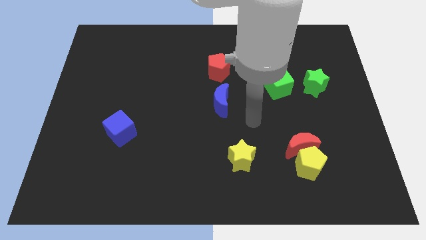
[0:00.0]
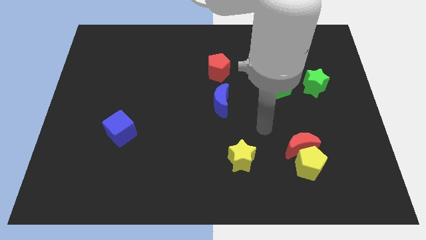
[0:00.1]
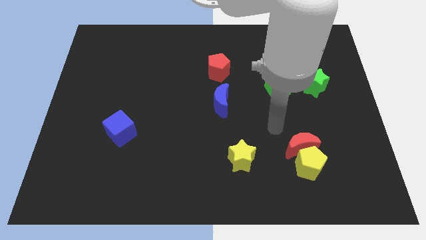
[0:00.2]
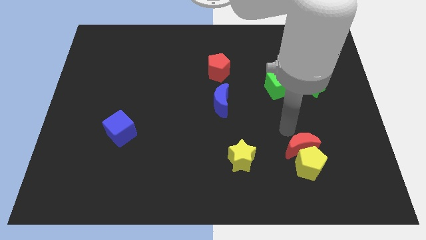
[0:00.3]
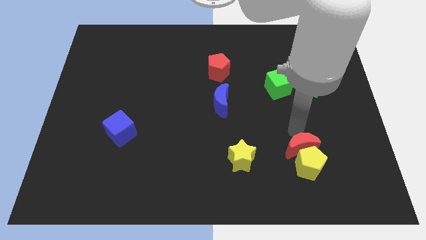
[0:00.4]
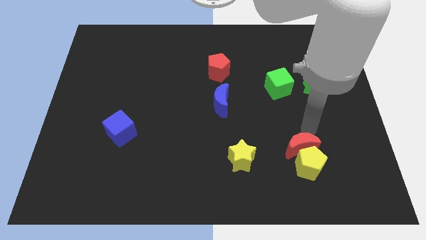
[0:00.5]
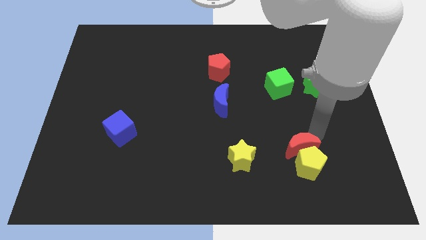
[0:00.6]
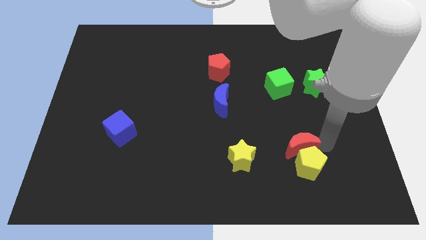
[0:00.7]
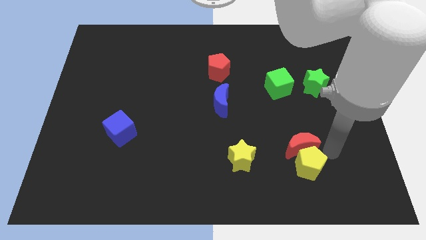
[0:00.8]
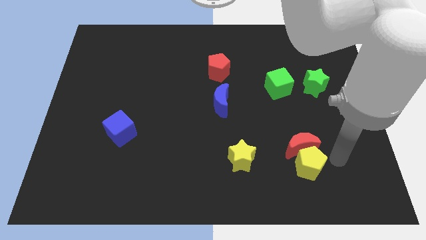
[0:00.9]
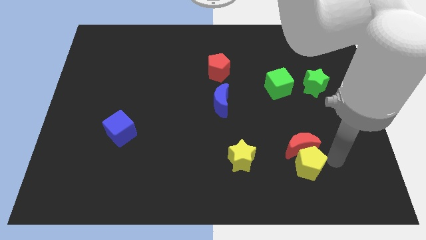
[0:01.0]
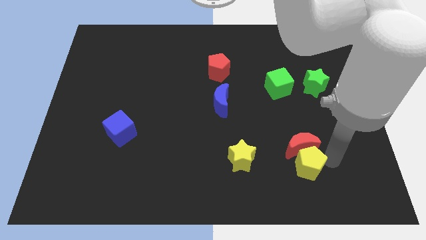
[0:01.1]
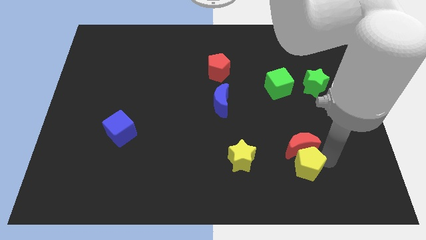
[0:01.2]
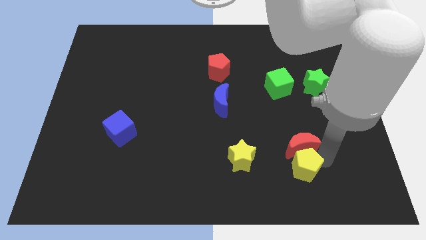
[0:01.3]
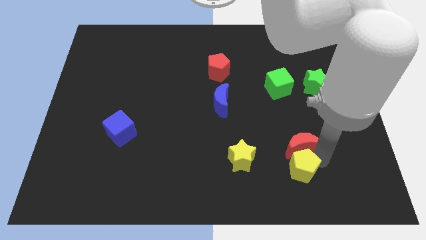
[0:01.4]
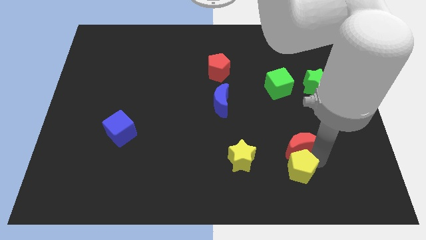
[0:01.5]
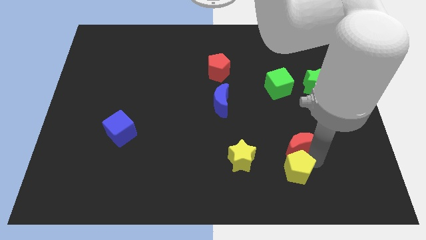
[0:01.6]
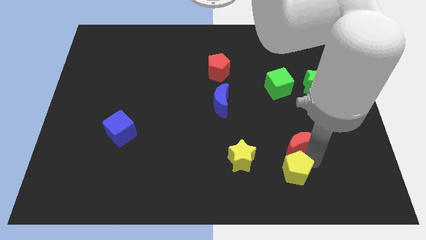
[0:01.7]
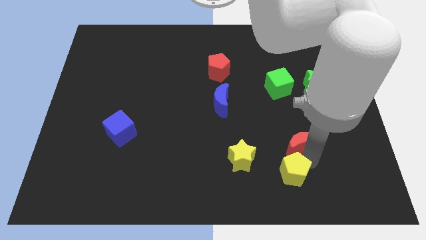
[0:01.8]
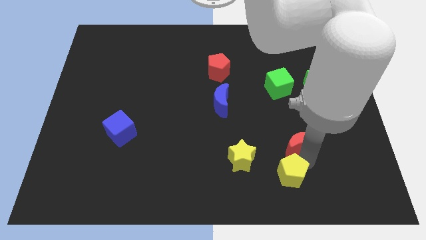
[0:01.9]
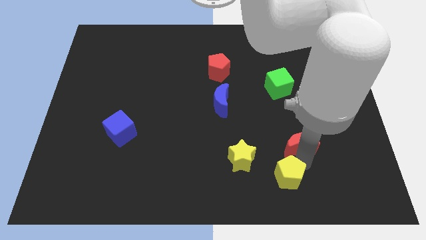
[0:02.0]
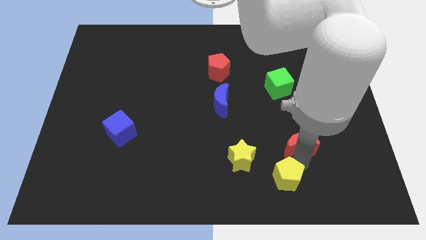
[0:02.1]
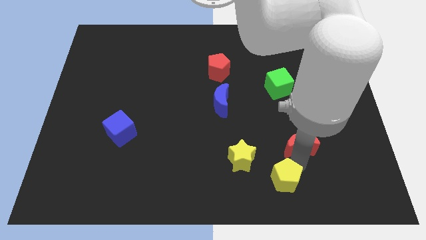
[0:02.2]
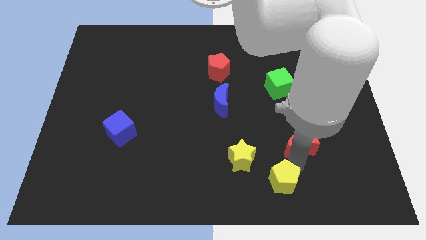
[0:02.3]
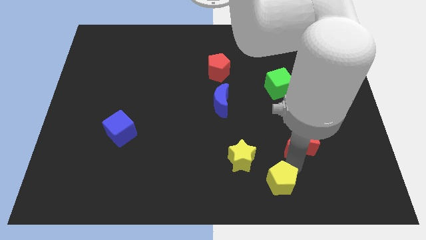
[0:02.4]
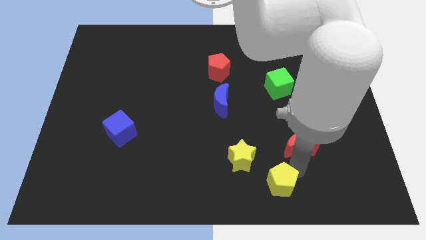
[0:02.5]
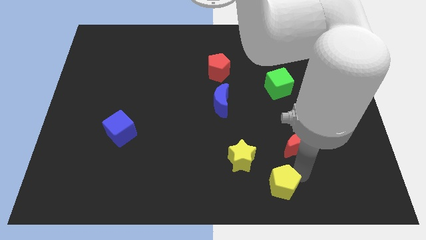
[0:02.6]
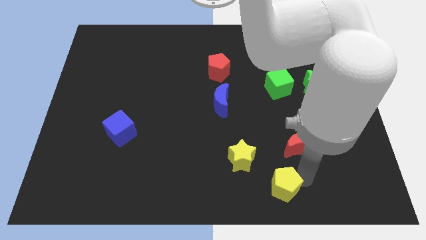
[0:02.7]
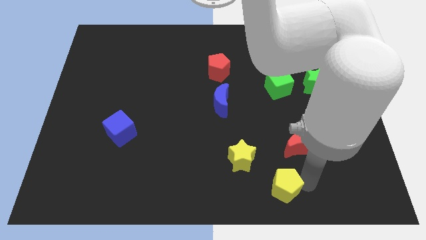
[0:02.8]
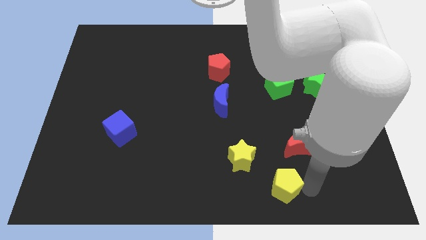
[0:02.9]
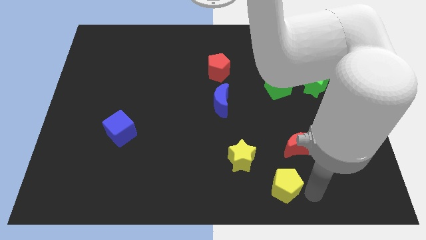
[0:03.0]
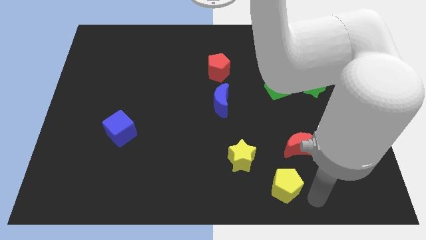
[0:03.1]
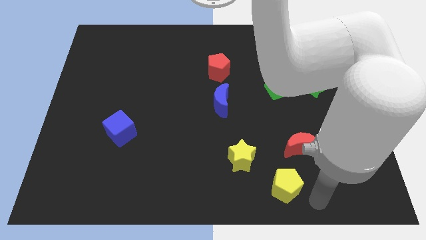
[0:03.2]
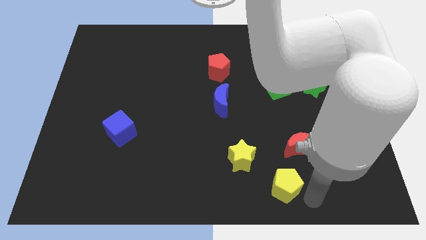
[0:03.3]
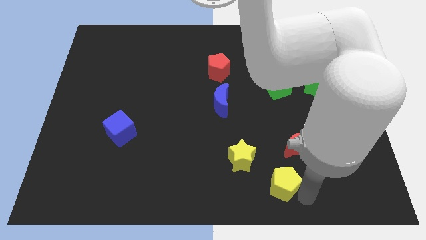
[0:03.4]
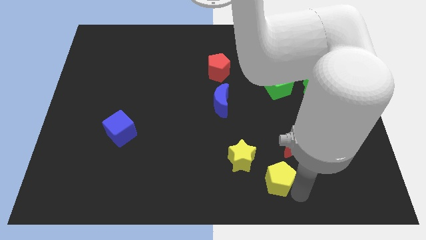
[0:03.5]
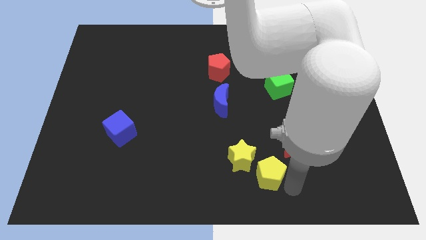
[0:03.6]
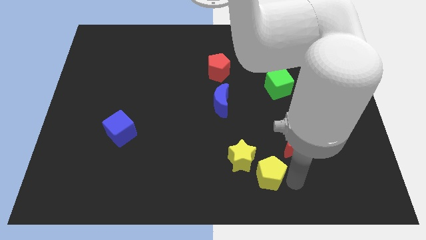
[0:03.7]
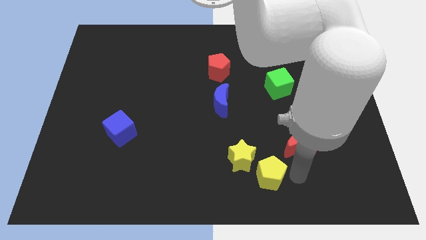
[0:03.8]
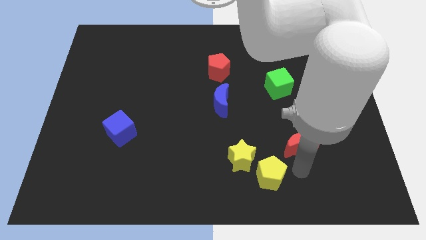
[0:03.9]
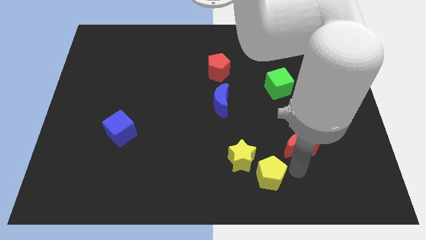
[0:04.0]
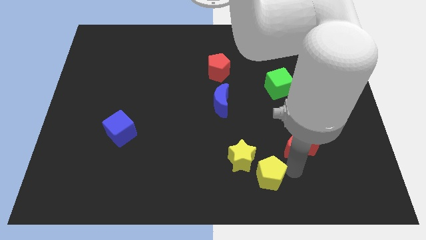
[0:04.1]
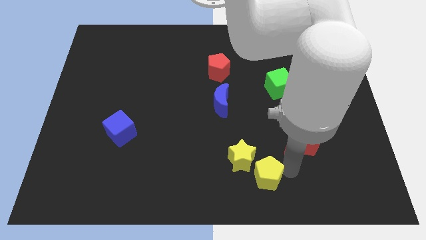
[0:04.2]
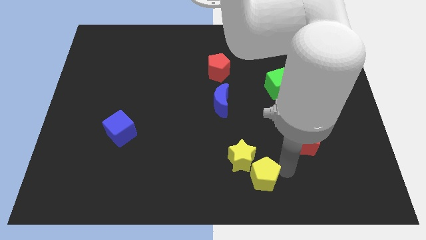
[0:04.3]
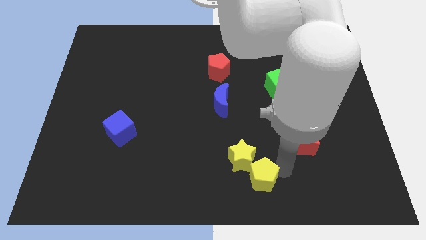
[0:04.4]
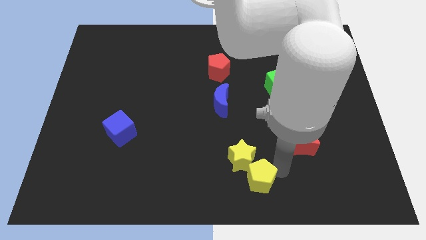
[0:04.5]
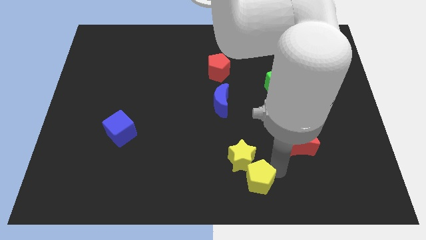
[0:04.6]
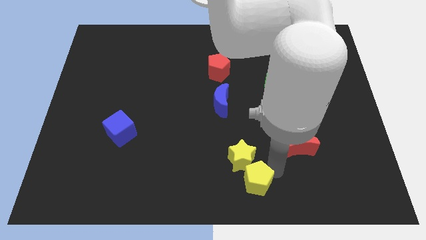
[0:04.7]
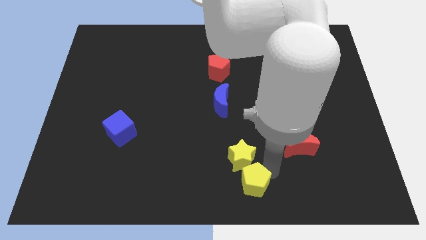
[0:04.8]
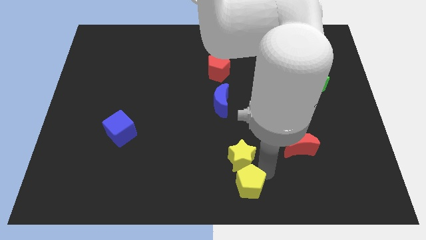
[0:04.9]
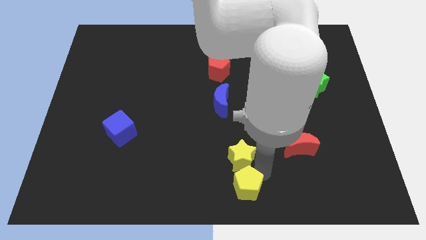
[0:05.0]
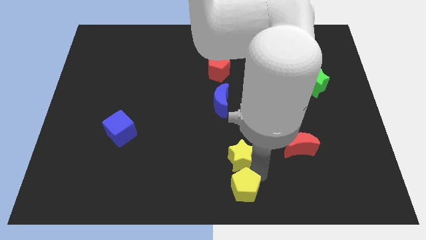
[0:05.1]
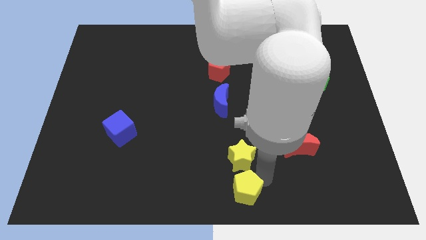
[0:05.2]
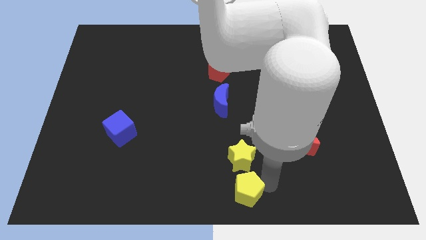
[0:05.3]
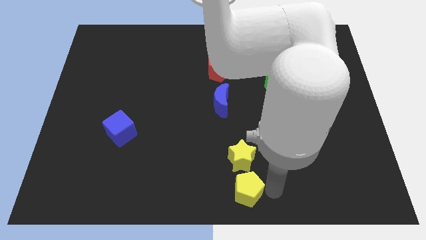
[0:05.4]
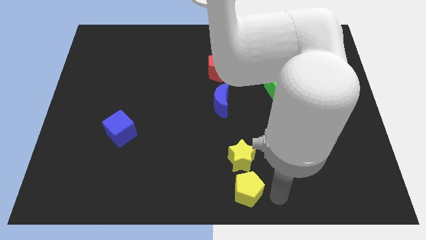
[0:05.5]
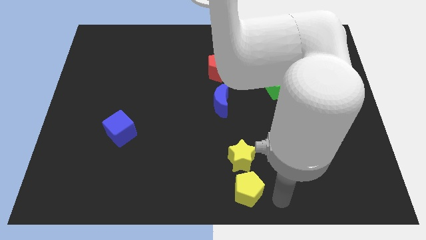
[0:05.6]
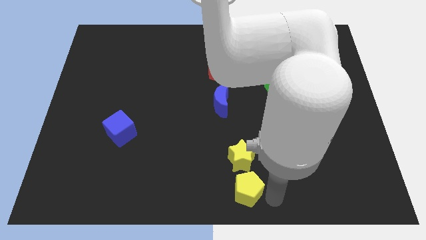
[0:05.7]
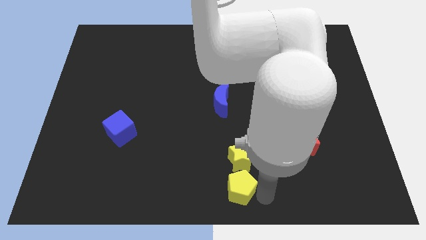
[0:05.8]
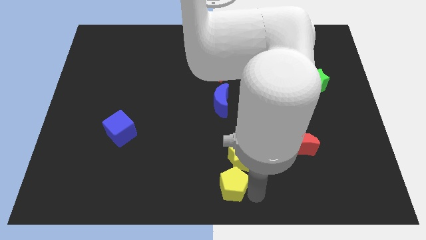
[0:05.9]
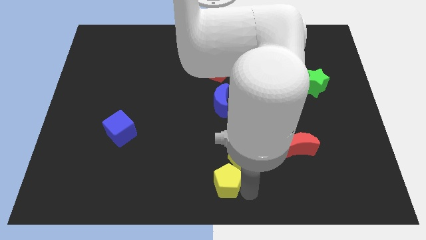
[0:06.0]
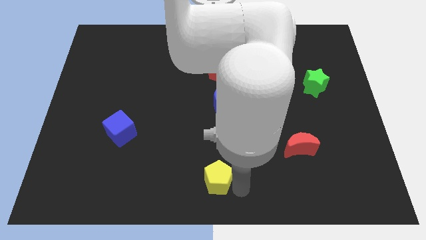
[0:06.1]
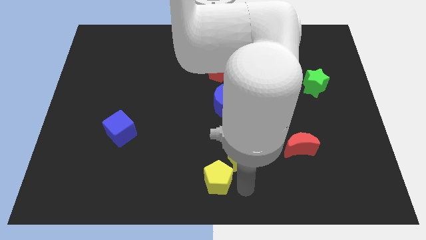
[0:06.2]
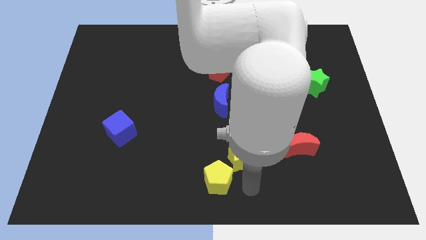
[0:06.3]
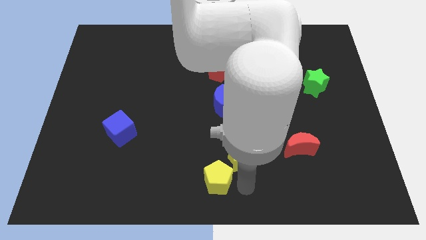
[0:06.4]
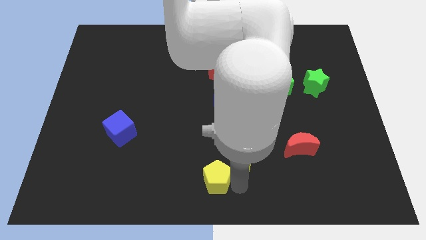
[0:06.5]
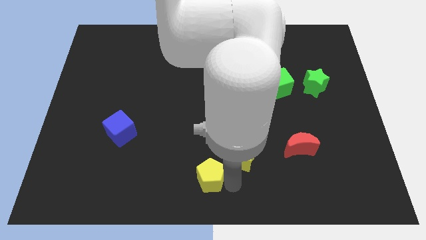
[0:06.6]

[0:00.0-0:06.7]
slide the yellow pentagon to the left

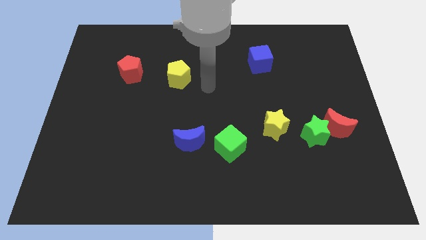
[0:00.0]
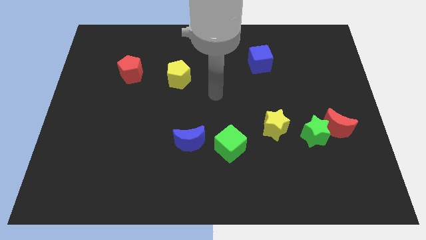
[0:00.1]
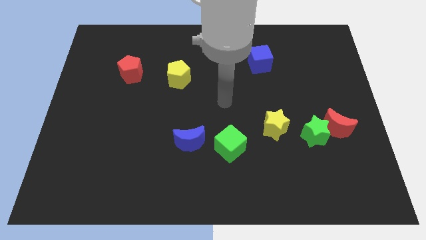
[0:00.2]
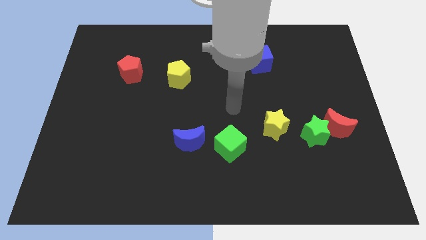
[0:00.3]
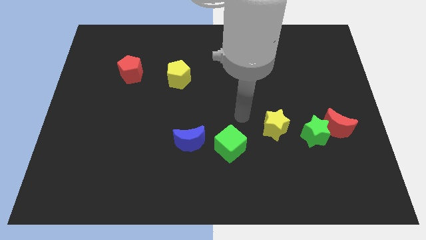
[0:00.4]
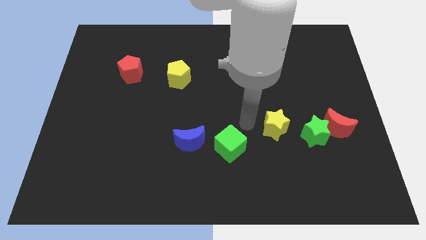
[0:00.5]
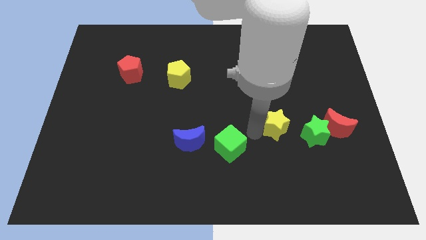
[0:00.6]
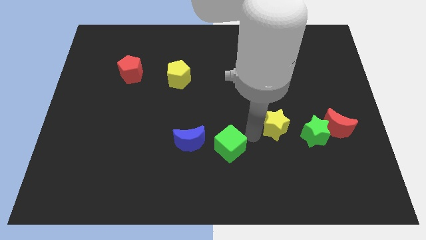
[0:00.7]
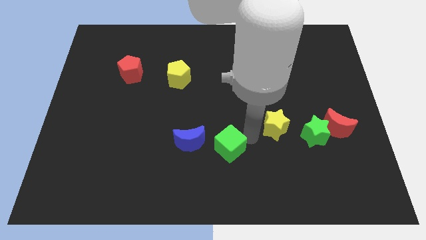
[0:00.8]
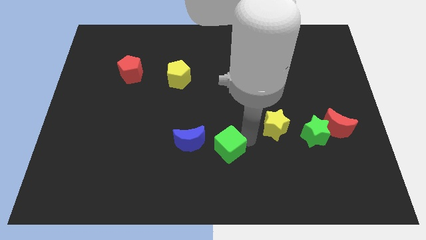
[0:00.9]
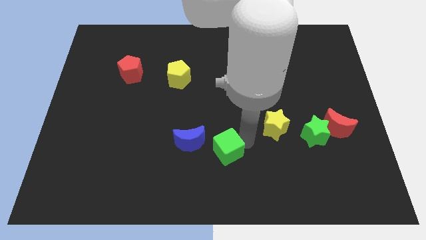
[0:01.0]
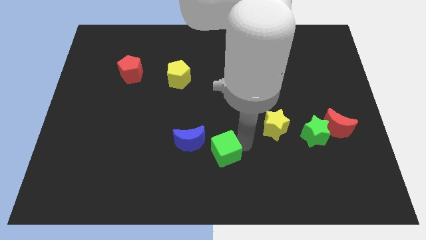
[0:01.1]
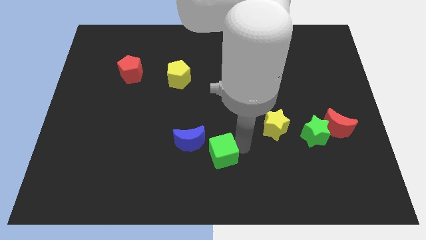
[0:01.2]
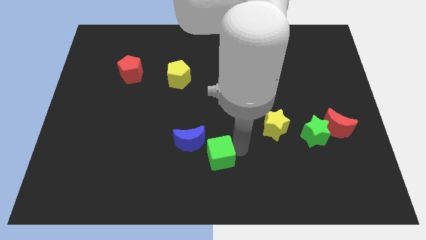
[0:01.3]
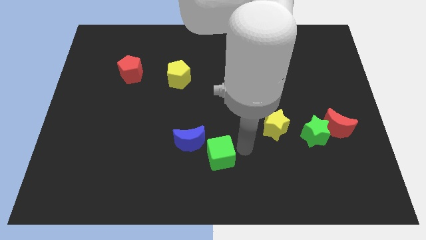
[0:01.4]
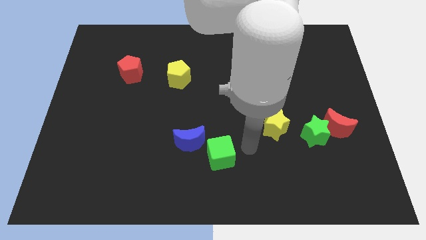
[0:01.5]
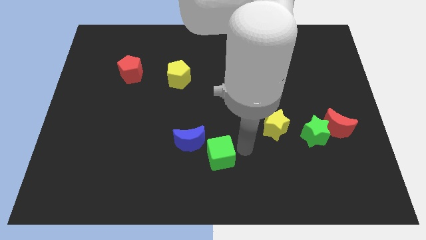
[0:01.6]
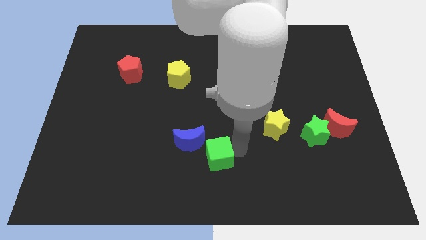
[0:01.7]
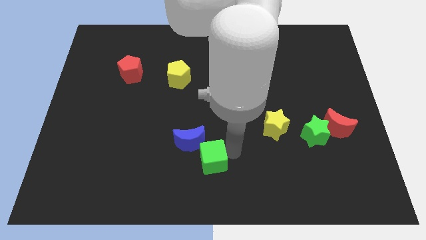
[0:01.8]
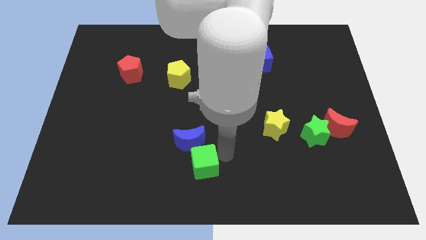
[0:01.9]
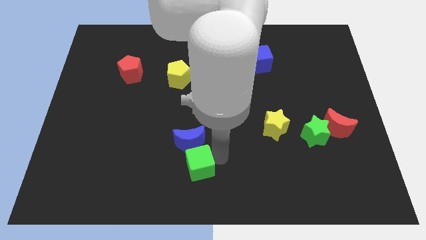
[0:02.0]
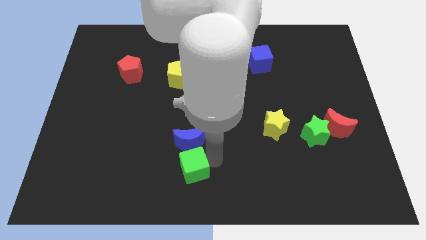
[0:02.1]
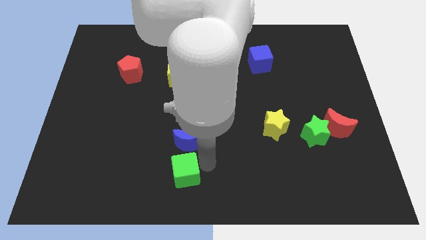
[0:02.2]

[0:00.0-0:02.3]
slide the green cube left slightly
